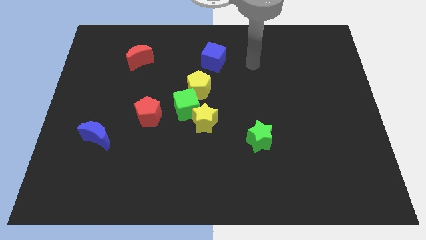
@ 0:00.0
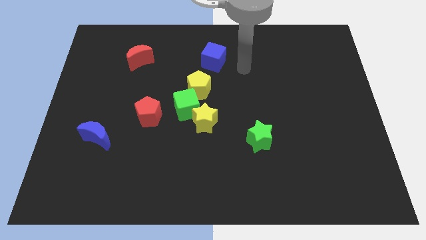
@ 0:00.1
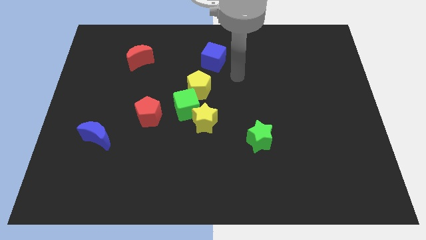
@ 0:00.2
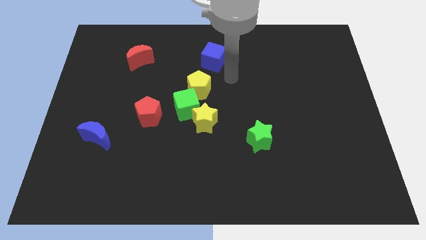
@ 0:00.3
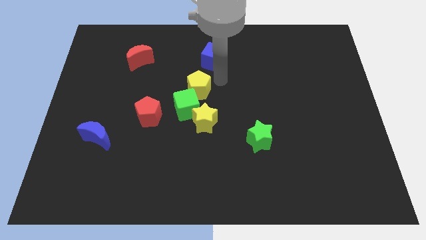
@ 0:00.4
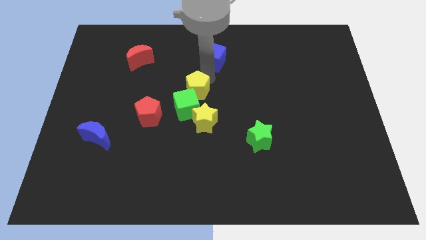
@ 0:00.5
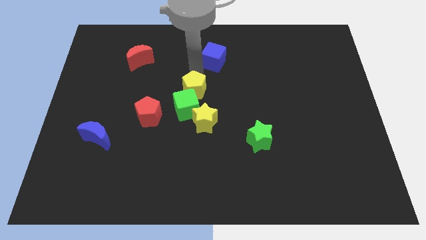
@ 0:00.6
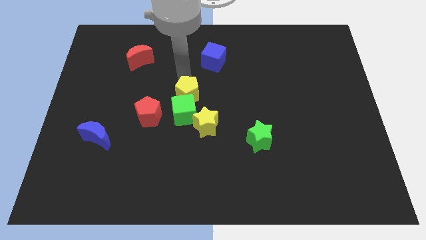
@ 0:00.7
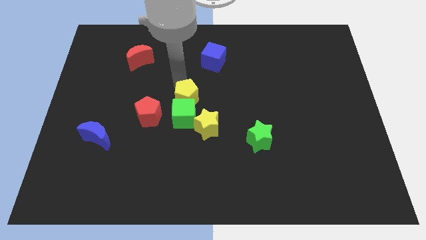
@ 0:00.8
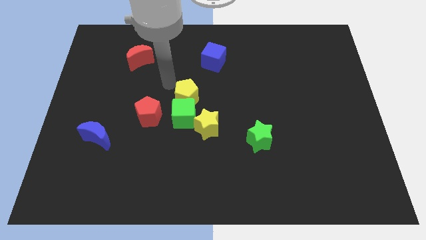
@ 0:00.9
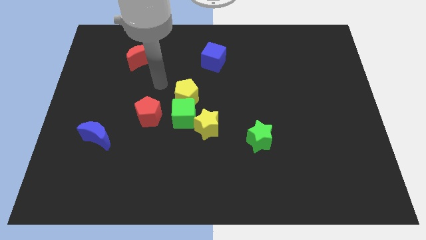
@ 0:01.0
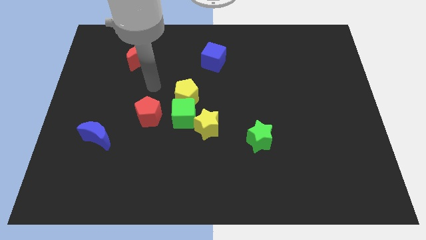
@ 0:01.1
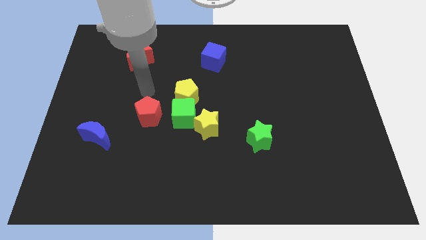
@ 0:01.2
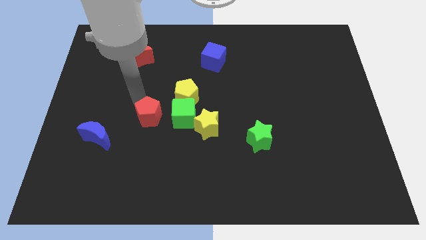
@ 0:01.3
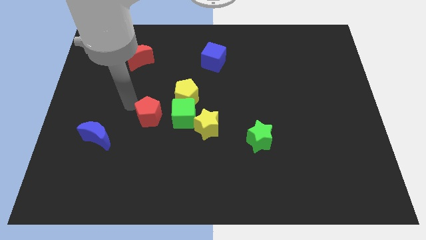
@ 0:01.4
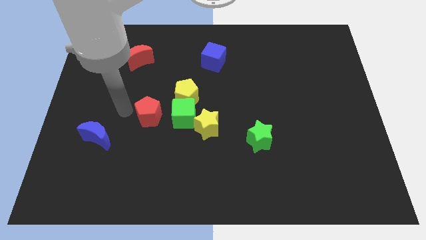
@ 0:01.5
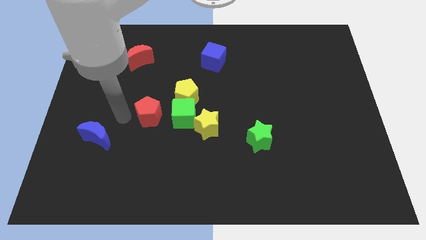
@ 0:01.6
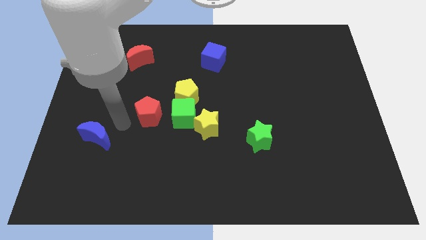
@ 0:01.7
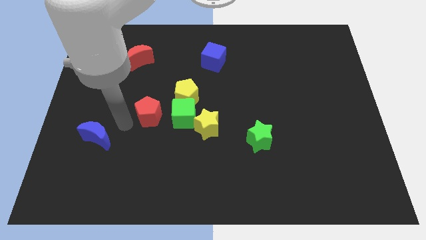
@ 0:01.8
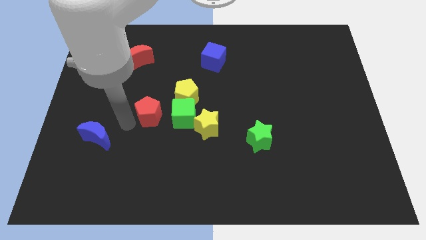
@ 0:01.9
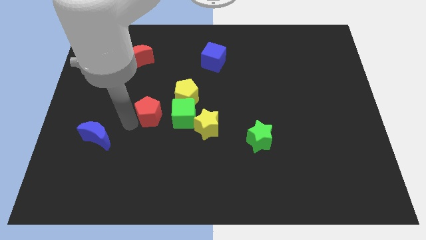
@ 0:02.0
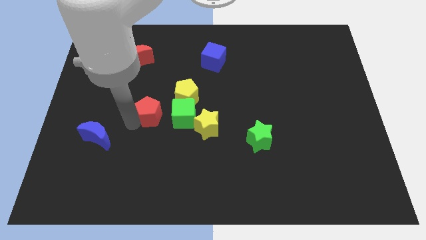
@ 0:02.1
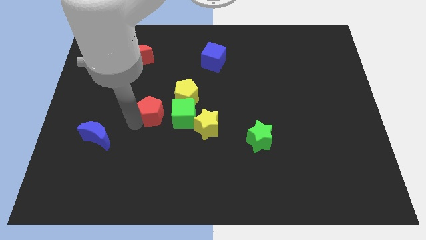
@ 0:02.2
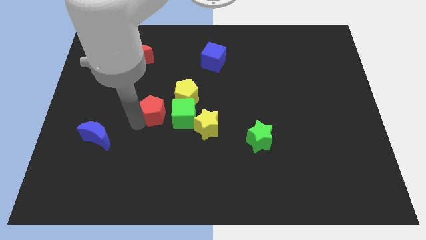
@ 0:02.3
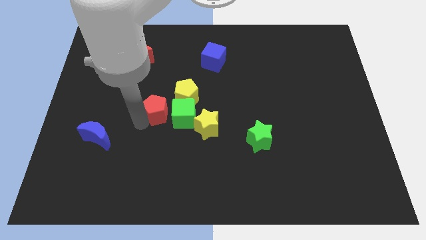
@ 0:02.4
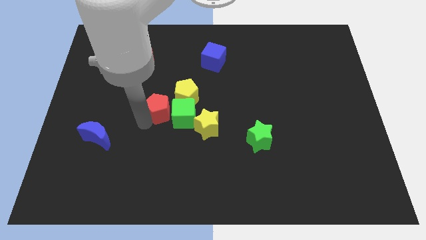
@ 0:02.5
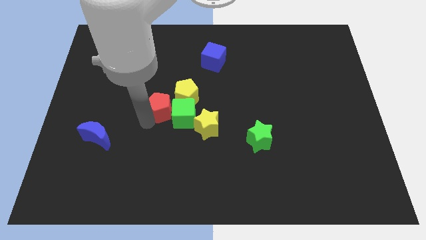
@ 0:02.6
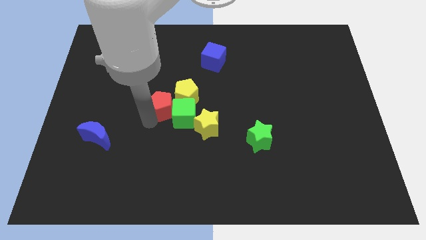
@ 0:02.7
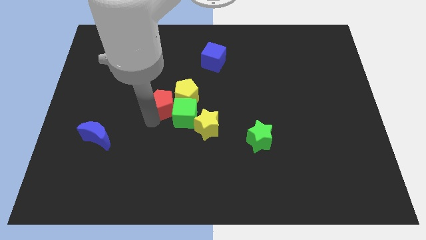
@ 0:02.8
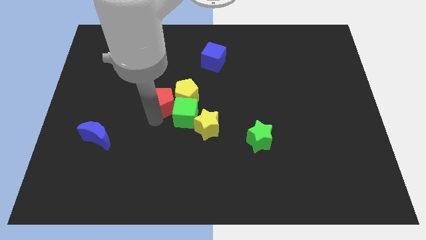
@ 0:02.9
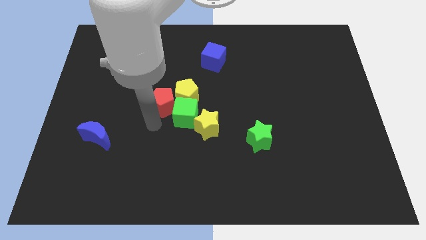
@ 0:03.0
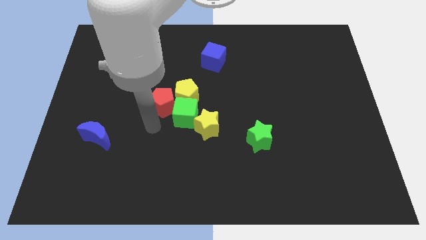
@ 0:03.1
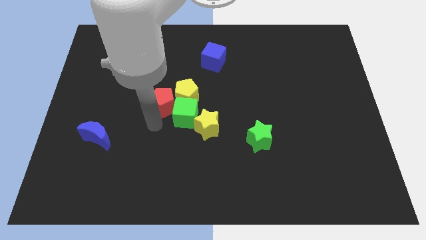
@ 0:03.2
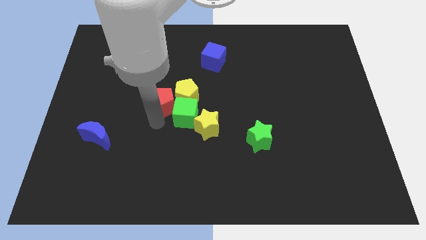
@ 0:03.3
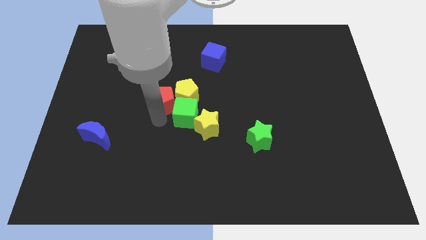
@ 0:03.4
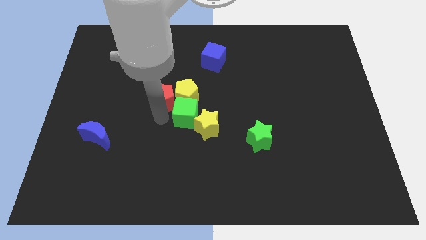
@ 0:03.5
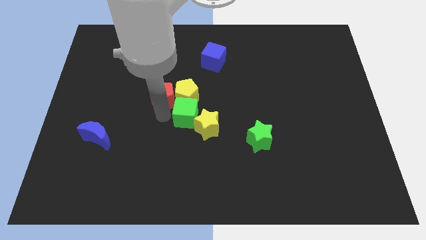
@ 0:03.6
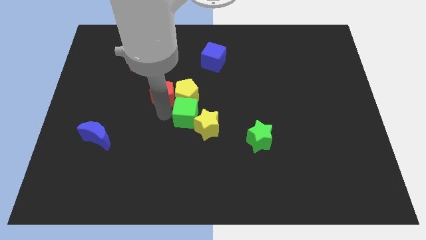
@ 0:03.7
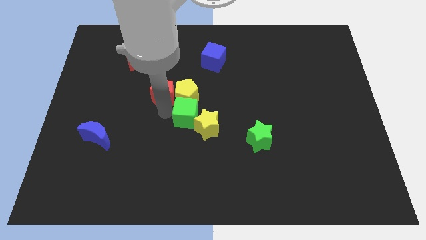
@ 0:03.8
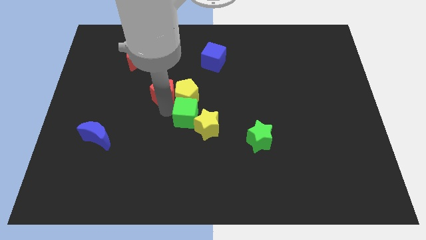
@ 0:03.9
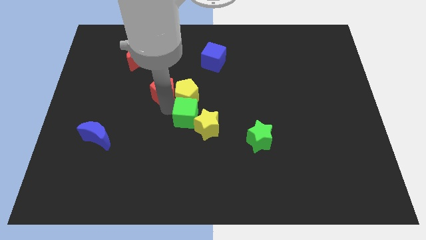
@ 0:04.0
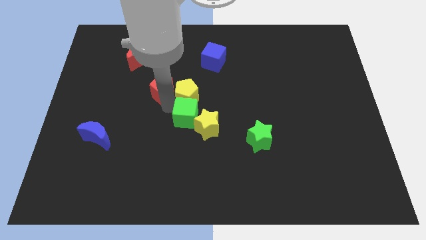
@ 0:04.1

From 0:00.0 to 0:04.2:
slightly slide the red pentagon upwards and then to the right

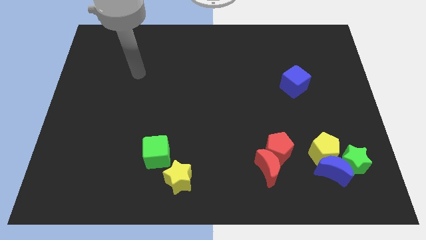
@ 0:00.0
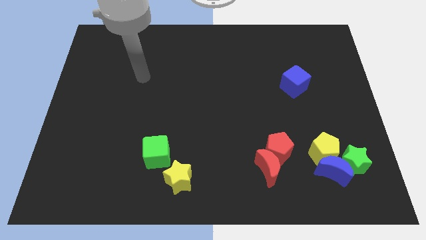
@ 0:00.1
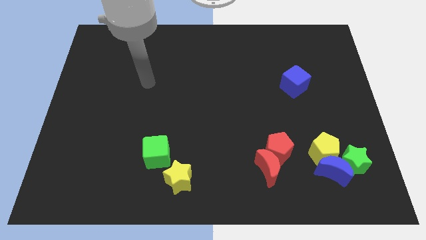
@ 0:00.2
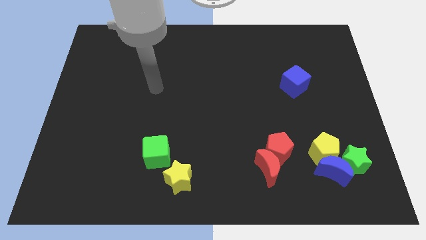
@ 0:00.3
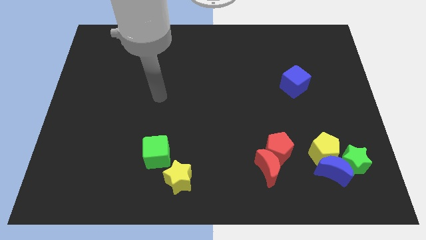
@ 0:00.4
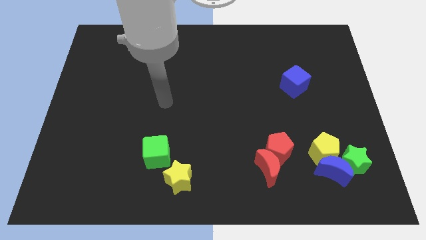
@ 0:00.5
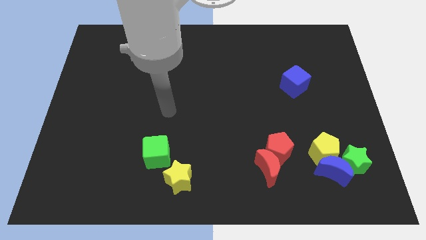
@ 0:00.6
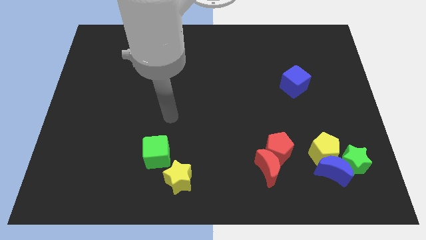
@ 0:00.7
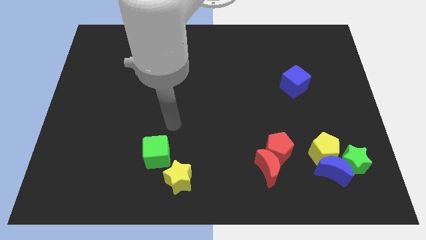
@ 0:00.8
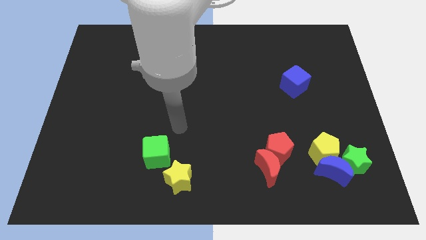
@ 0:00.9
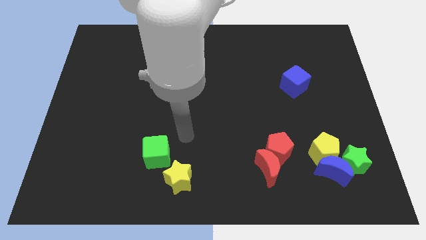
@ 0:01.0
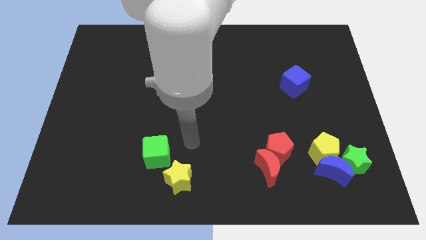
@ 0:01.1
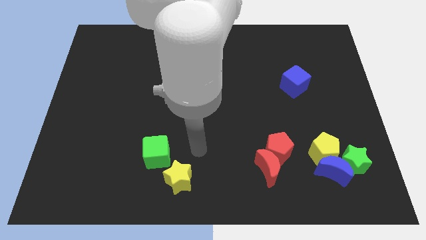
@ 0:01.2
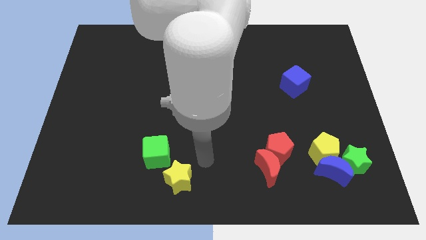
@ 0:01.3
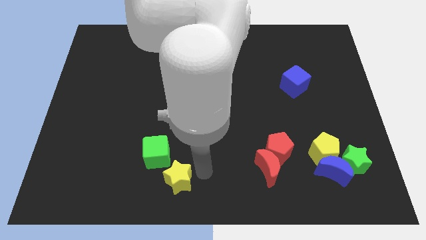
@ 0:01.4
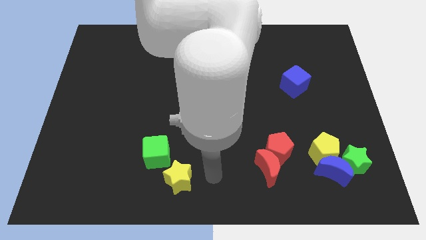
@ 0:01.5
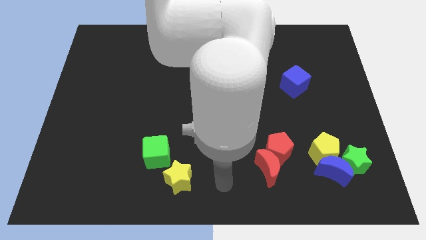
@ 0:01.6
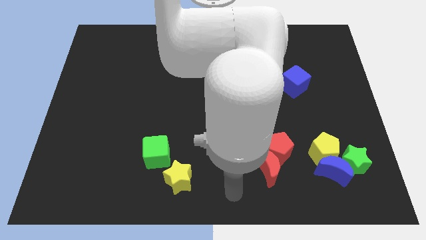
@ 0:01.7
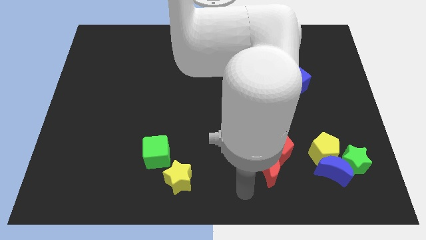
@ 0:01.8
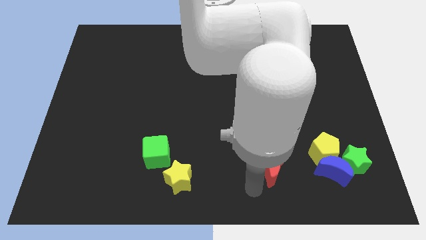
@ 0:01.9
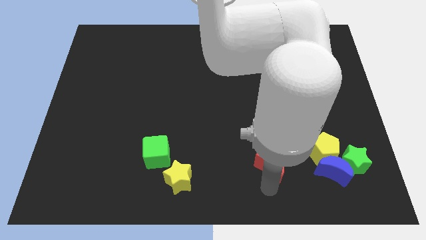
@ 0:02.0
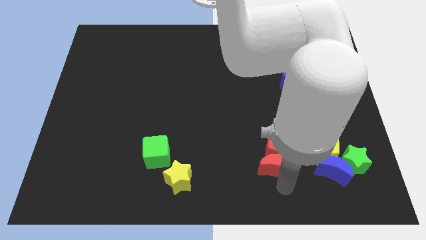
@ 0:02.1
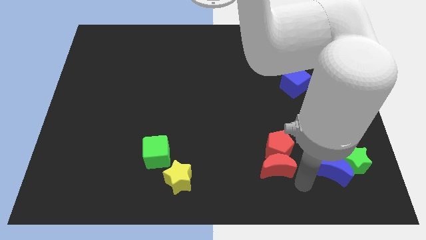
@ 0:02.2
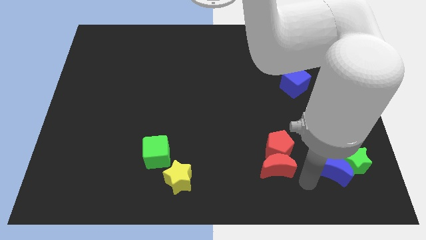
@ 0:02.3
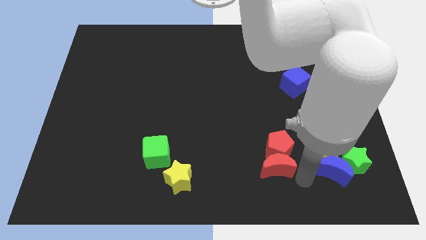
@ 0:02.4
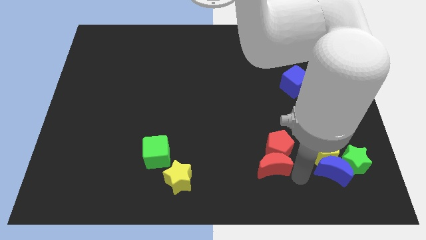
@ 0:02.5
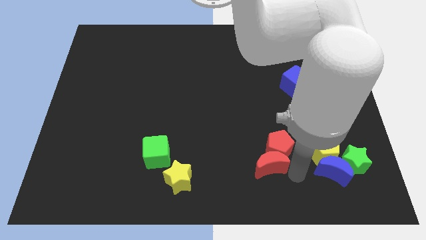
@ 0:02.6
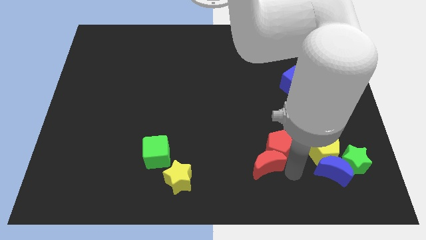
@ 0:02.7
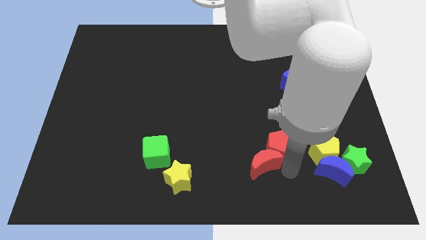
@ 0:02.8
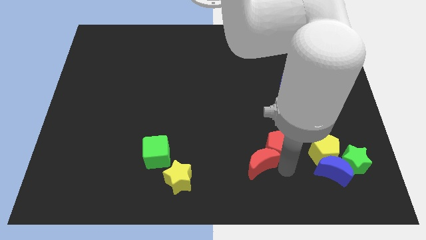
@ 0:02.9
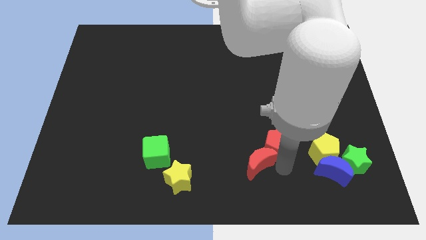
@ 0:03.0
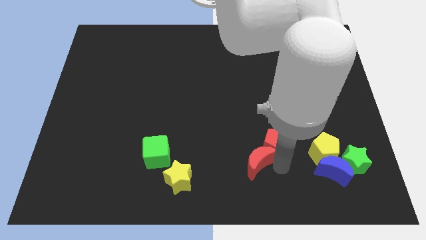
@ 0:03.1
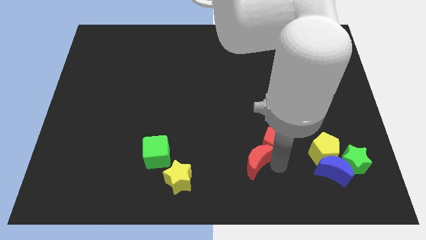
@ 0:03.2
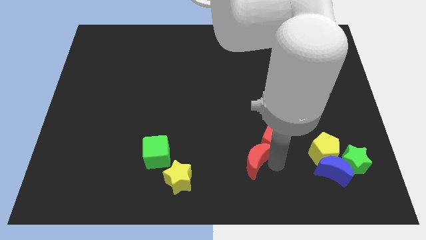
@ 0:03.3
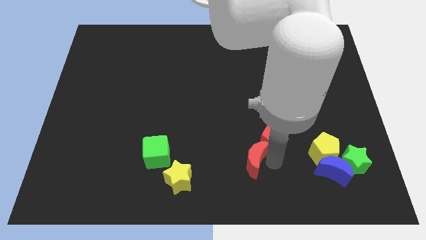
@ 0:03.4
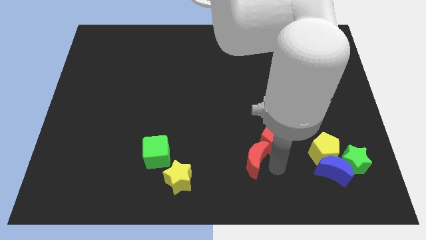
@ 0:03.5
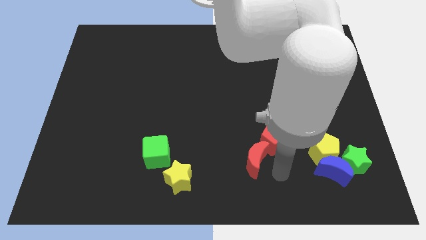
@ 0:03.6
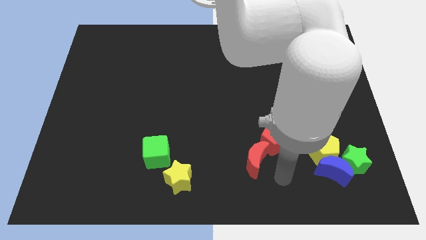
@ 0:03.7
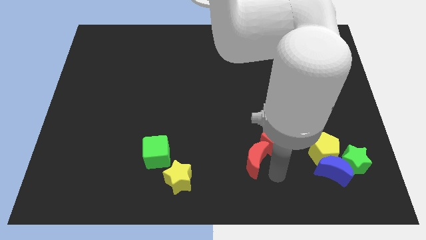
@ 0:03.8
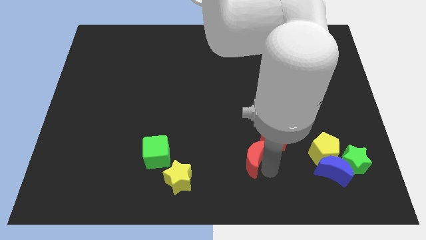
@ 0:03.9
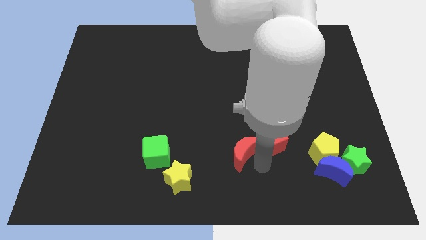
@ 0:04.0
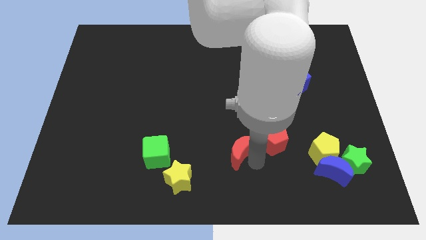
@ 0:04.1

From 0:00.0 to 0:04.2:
slide the red moon upwards and then left a little
